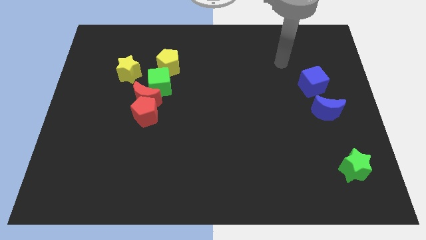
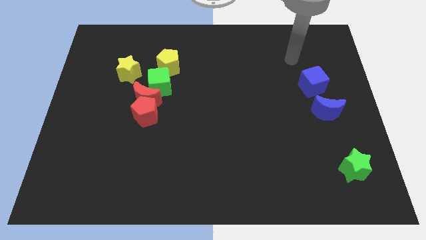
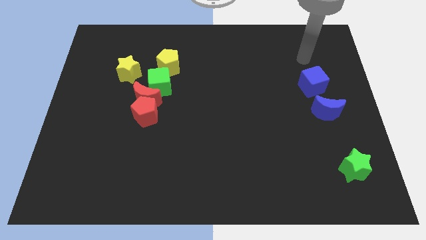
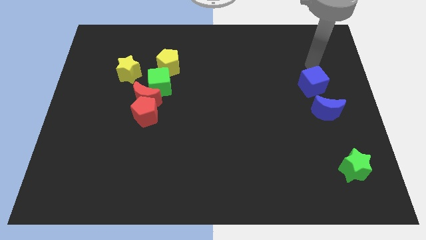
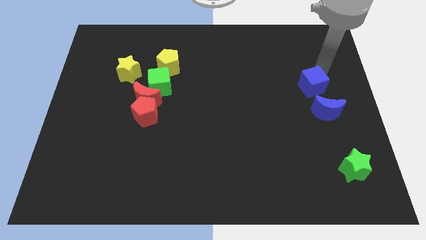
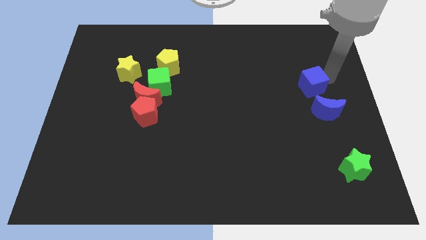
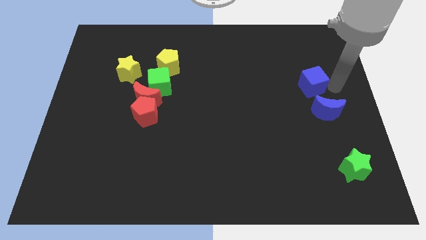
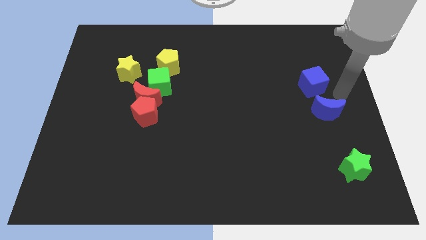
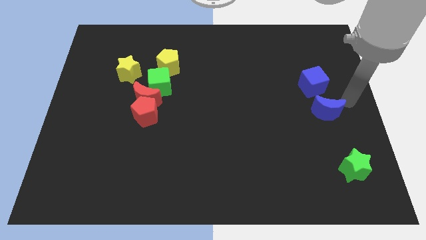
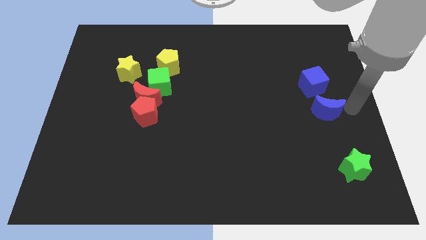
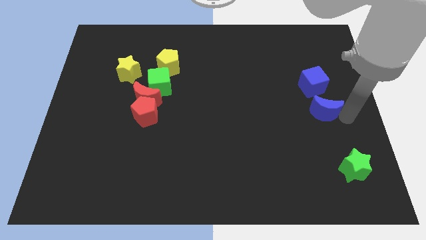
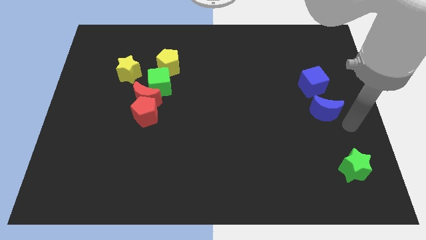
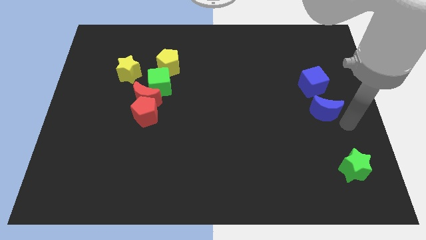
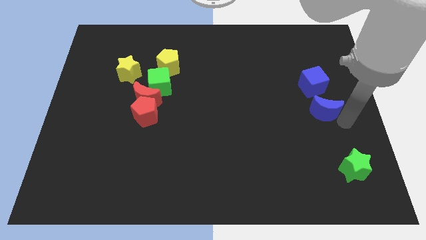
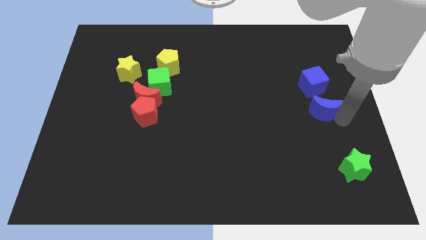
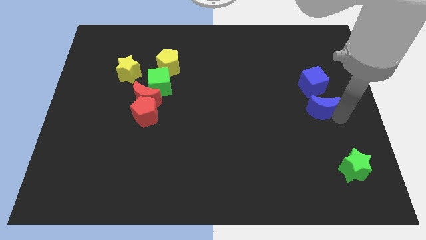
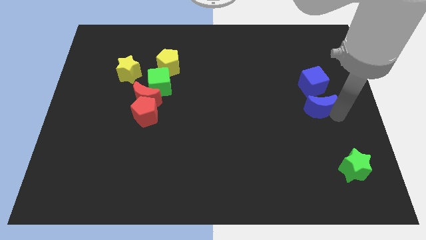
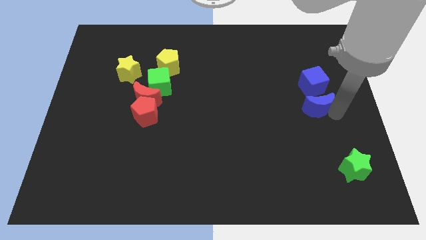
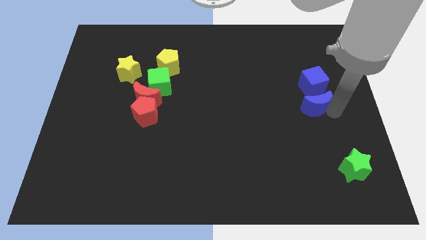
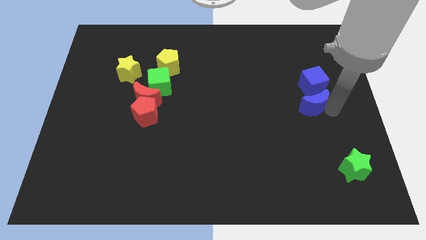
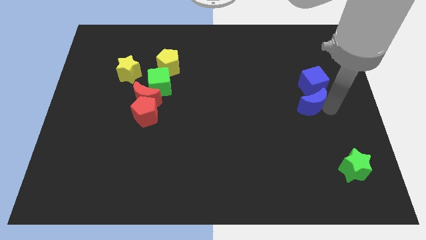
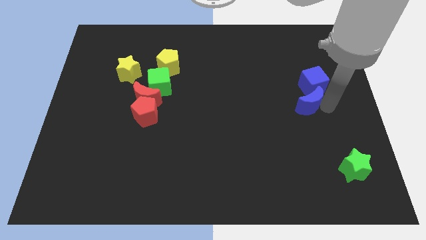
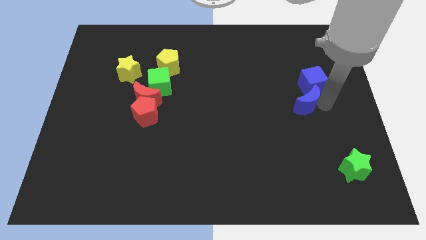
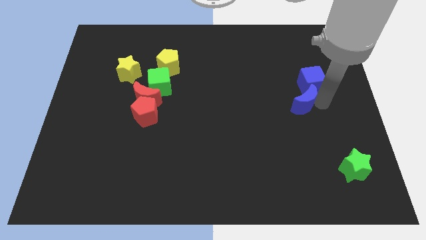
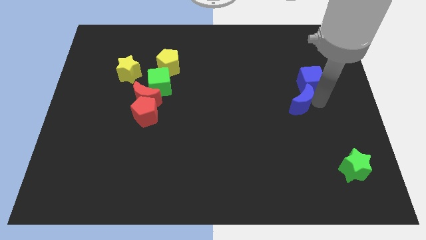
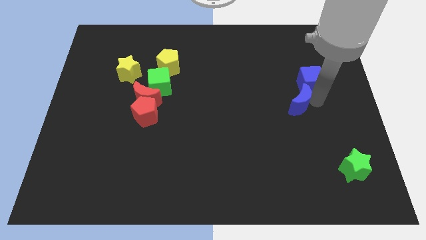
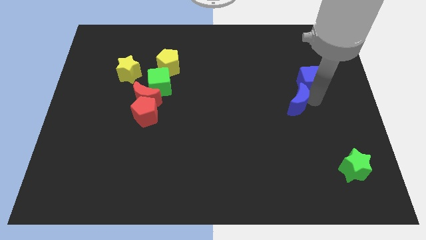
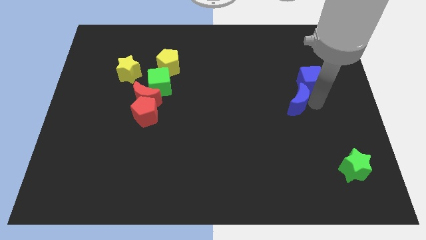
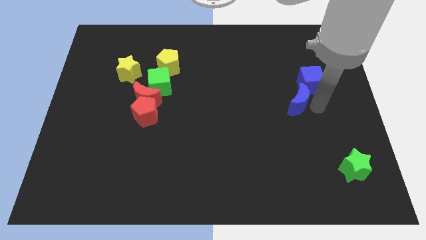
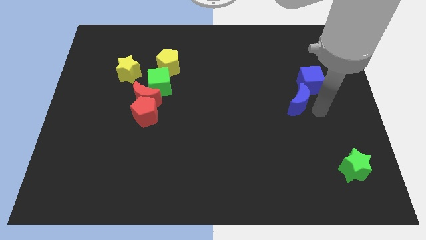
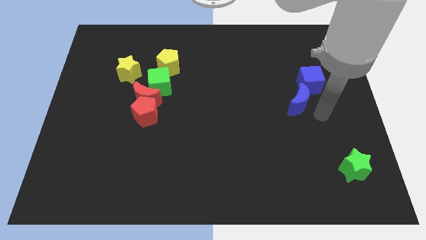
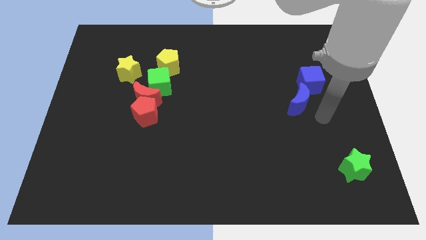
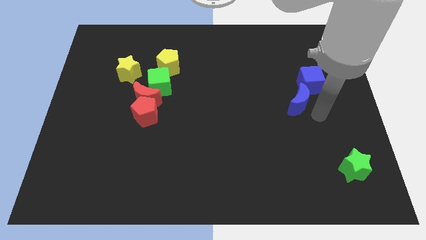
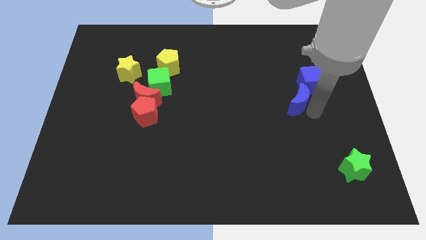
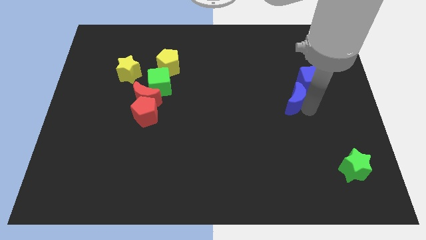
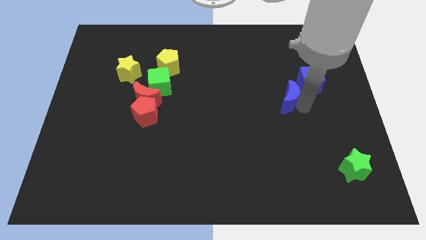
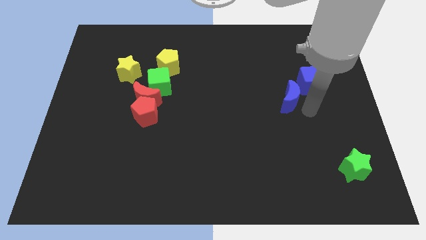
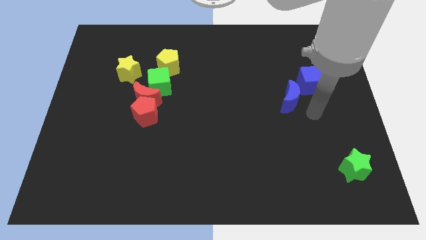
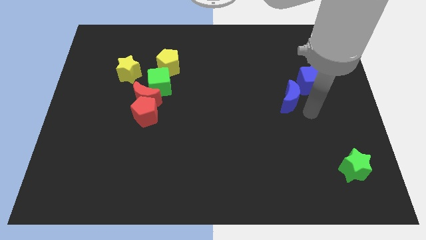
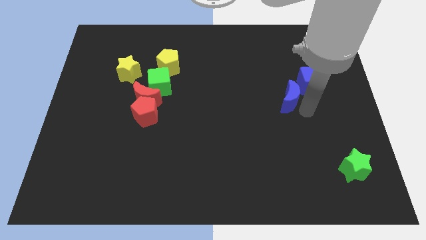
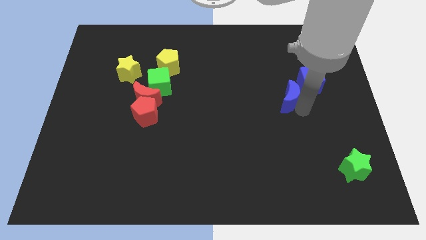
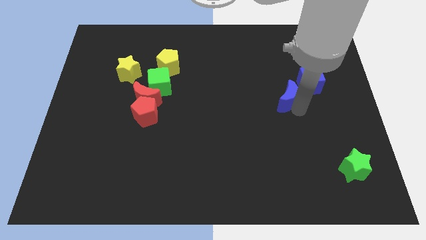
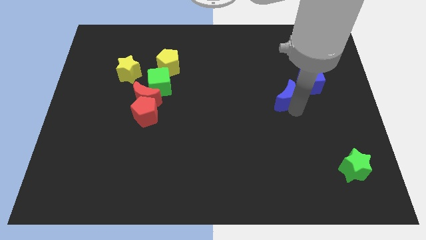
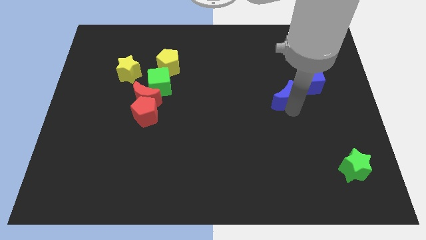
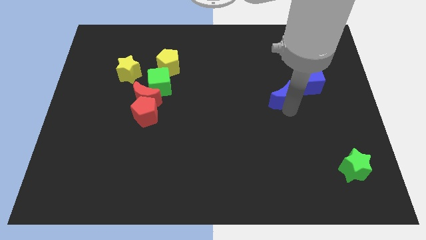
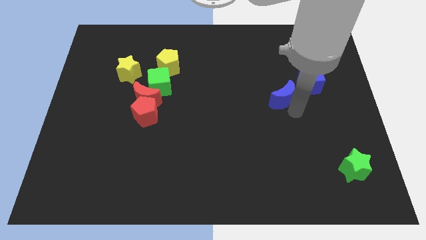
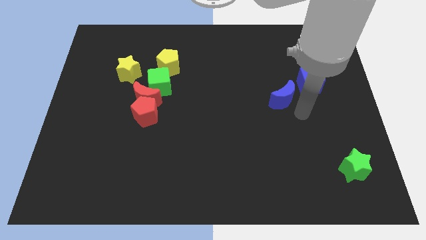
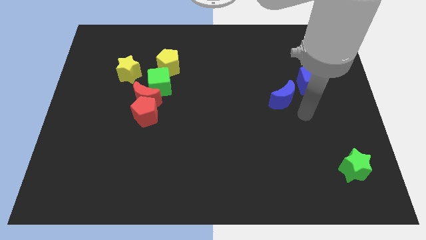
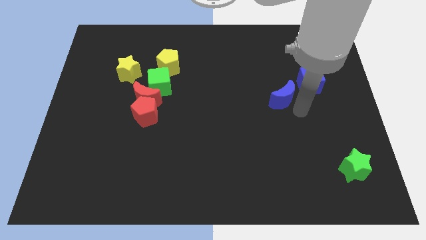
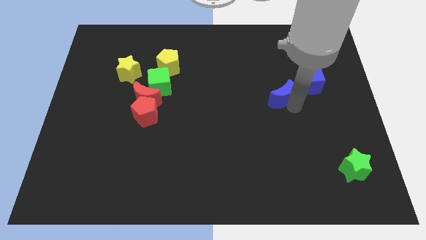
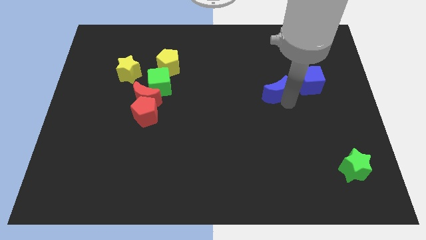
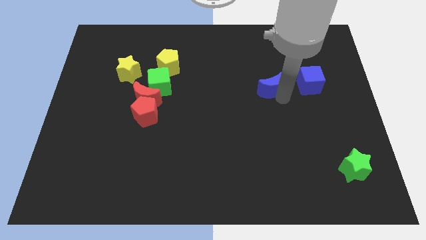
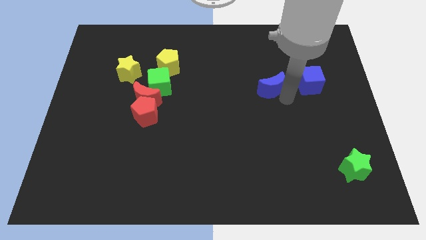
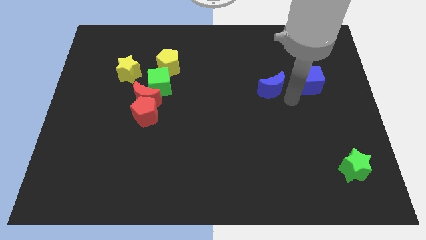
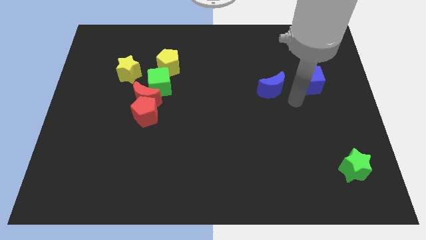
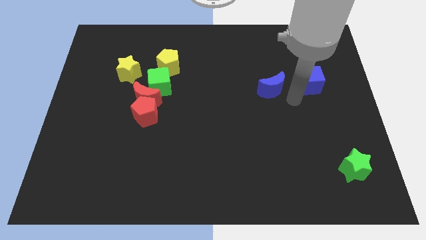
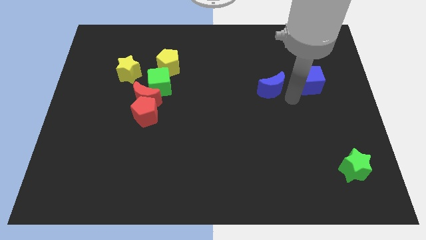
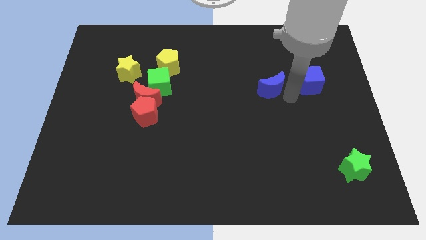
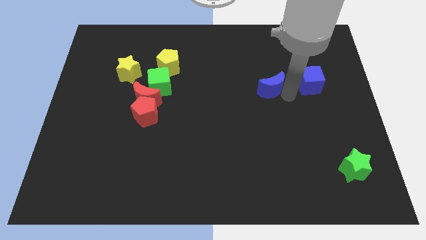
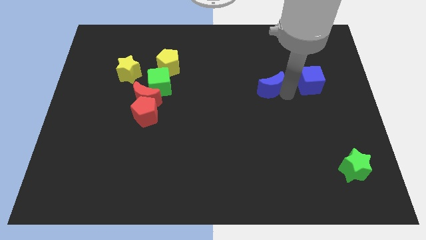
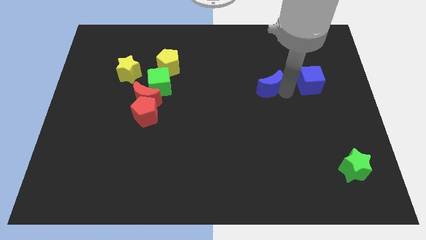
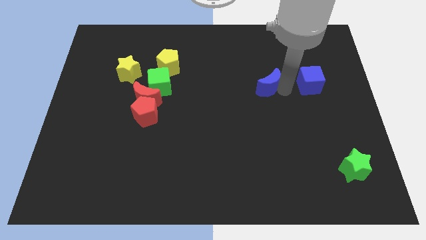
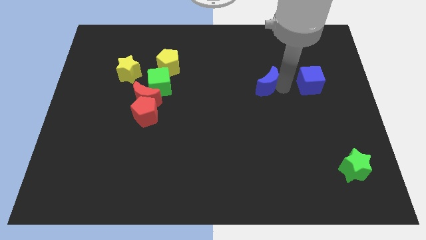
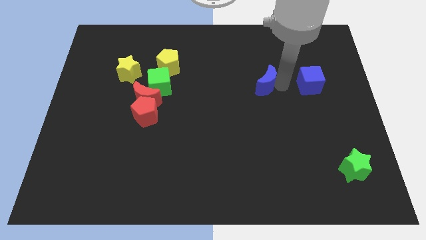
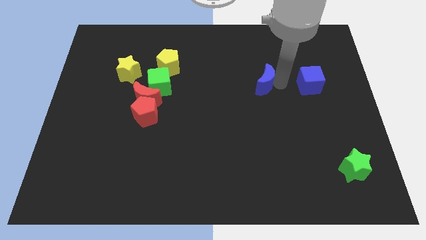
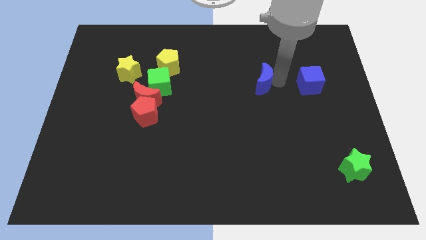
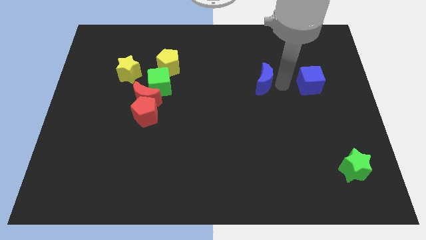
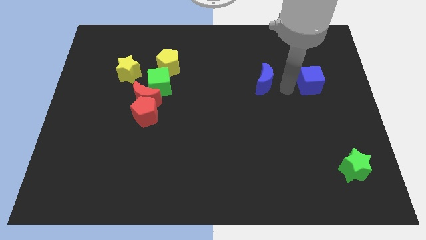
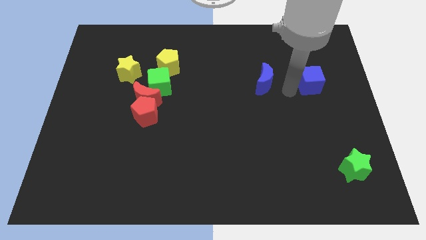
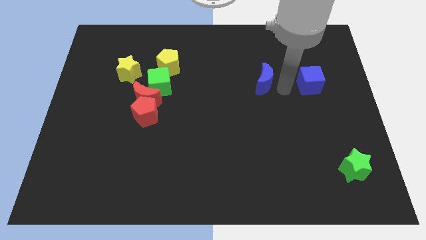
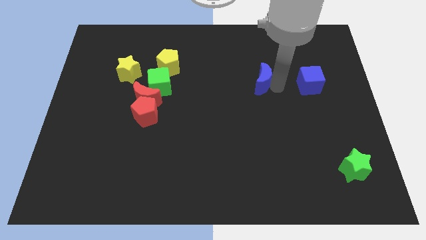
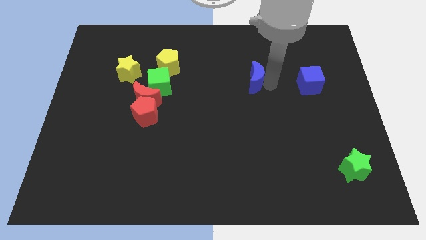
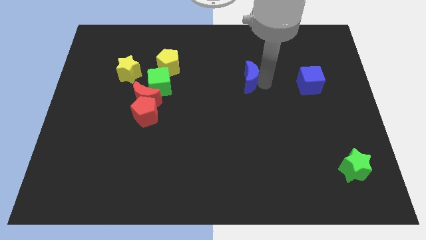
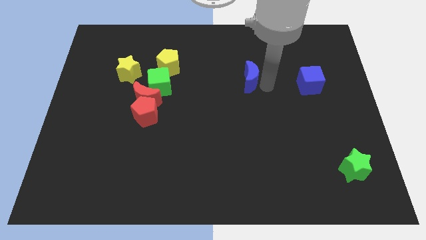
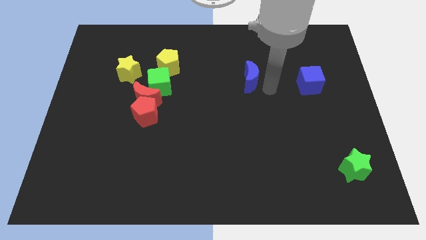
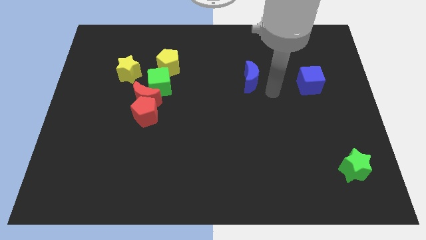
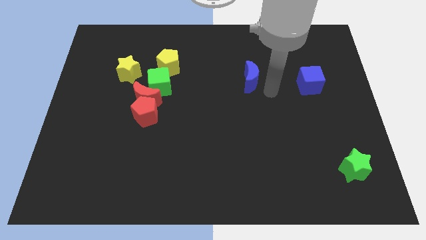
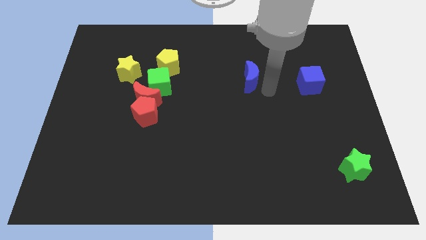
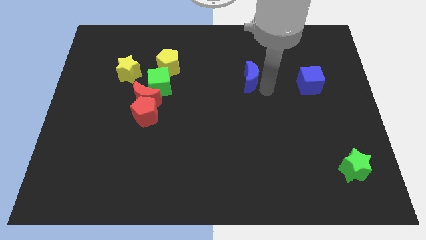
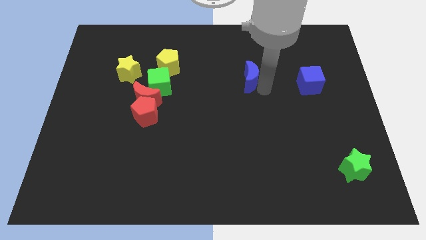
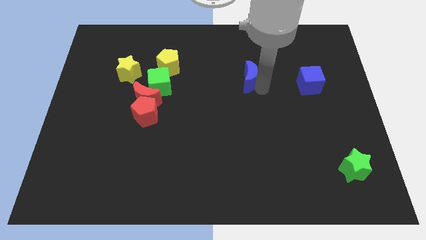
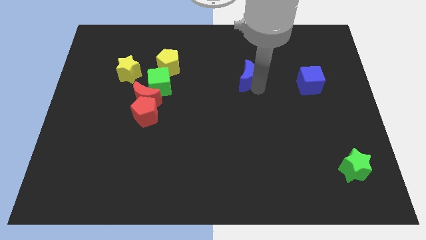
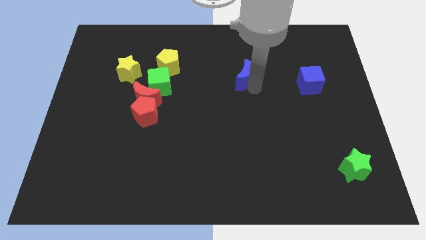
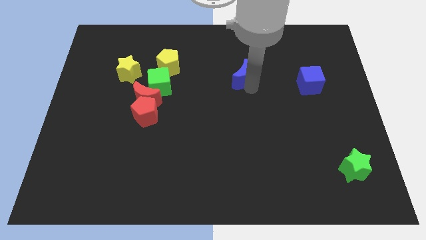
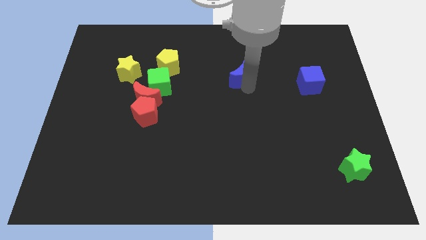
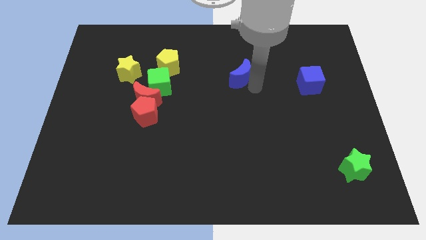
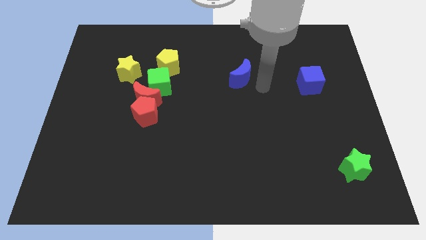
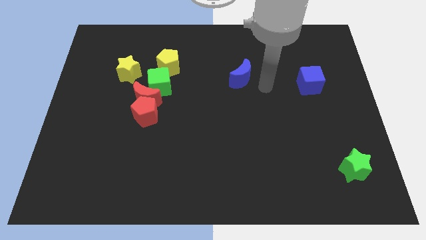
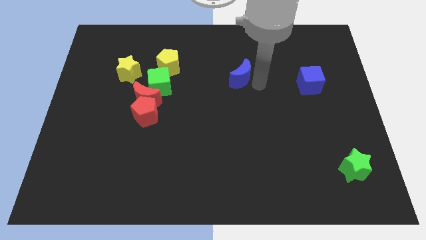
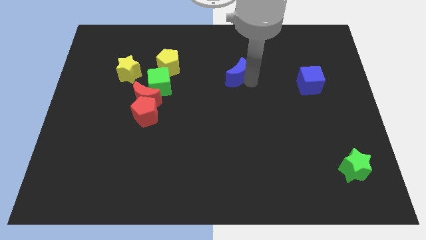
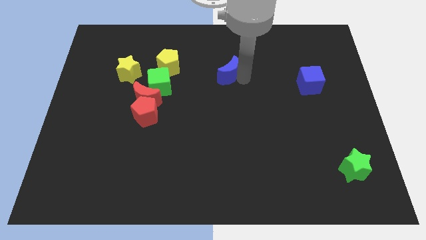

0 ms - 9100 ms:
put the blue moon right of the yellow pentagon
